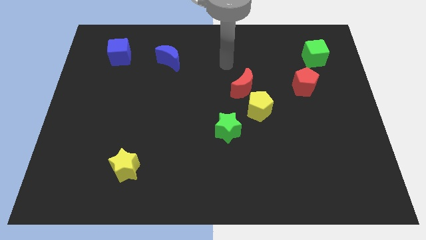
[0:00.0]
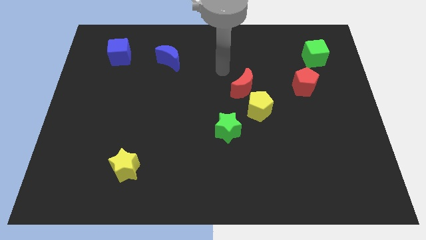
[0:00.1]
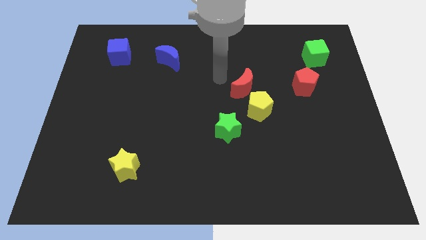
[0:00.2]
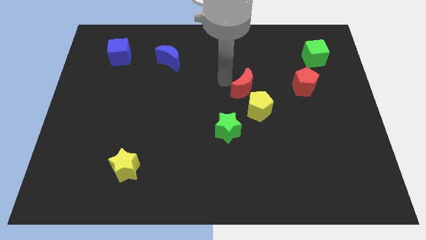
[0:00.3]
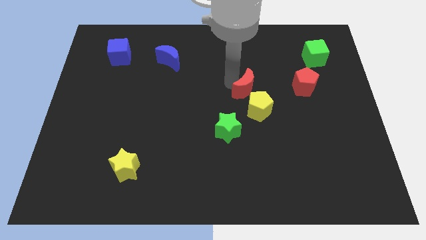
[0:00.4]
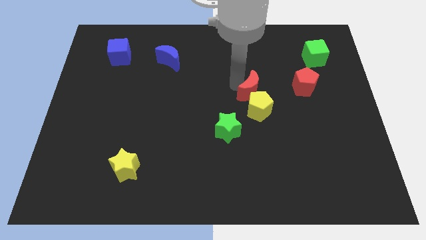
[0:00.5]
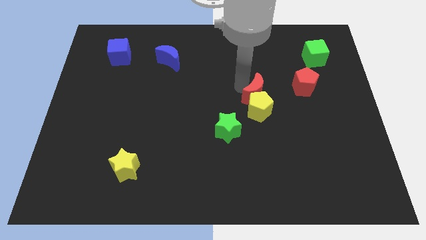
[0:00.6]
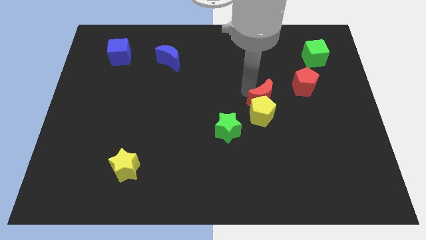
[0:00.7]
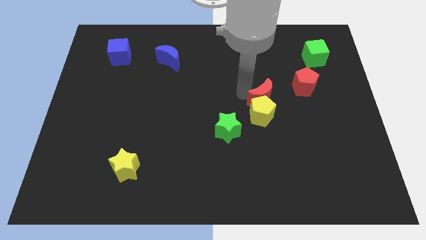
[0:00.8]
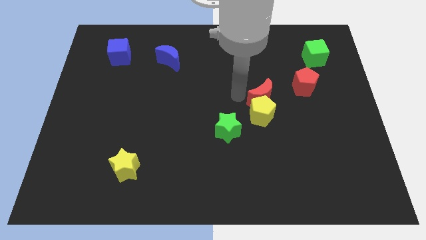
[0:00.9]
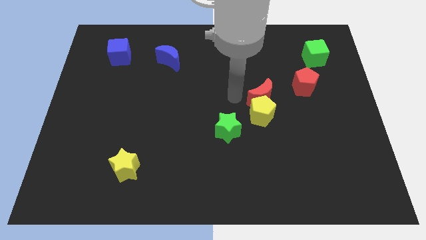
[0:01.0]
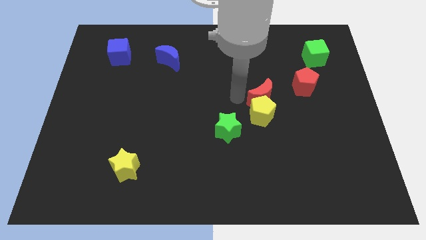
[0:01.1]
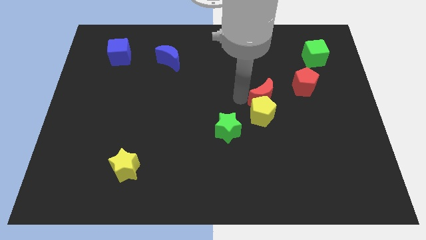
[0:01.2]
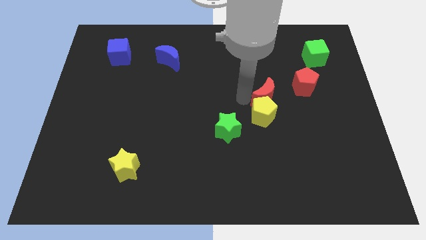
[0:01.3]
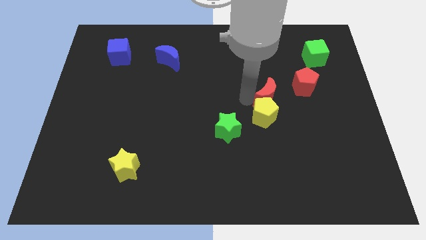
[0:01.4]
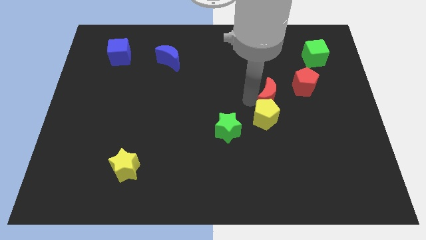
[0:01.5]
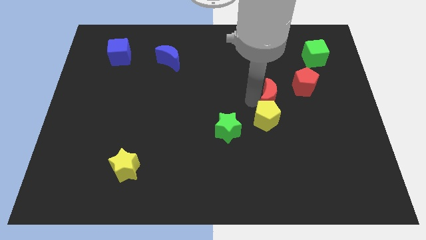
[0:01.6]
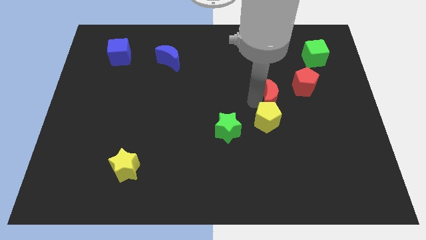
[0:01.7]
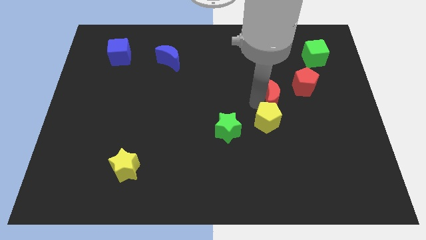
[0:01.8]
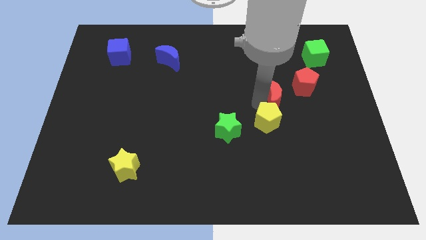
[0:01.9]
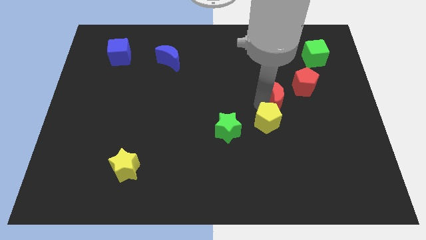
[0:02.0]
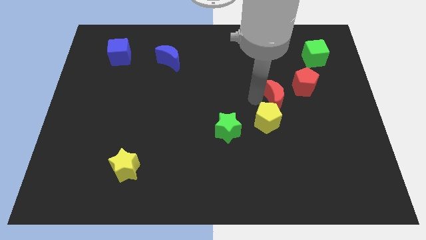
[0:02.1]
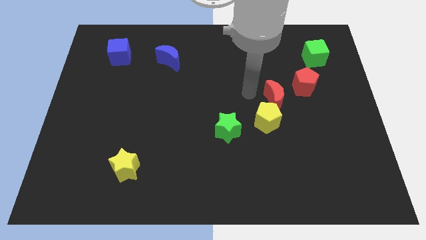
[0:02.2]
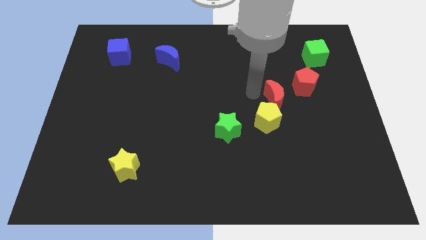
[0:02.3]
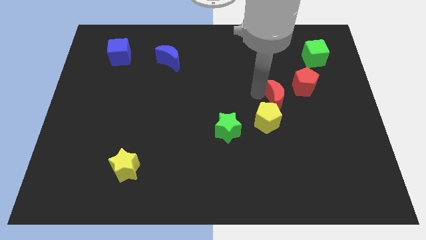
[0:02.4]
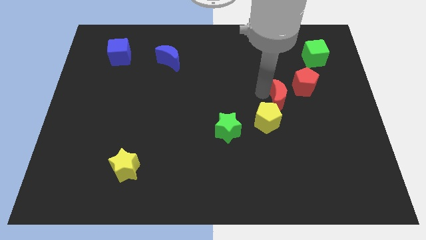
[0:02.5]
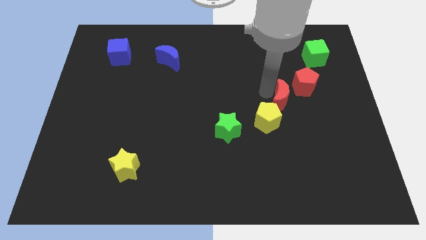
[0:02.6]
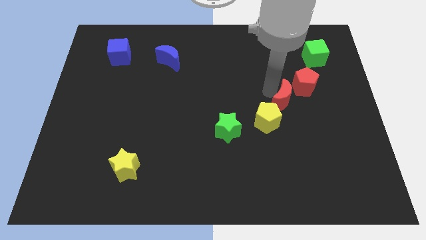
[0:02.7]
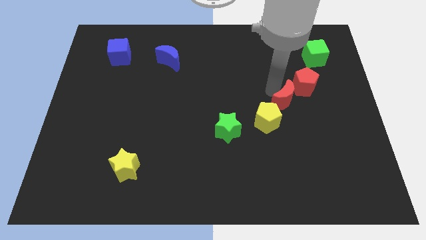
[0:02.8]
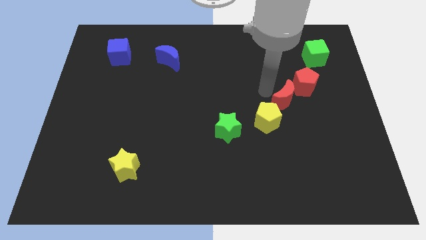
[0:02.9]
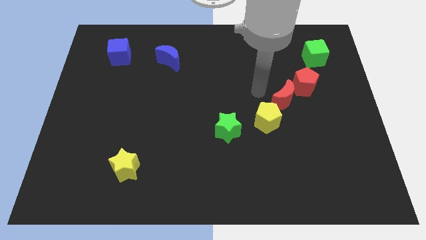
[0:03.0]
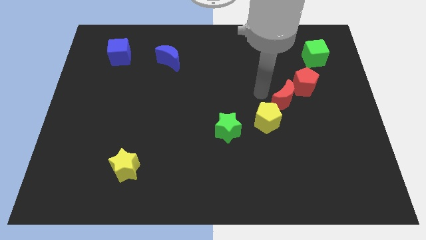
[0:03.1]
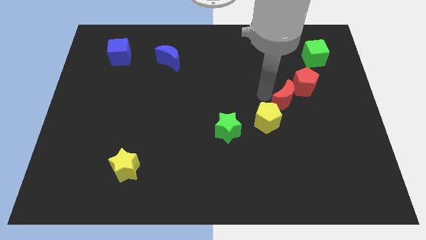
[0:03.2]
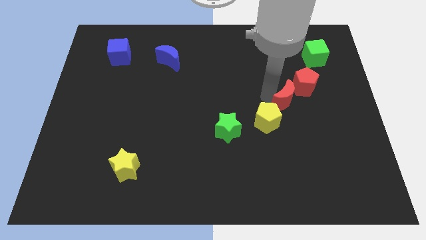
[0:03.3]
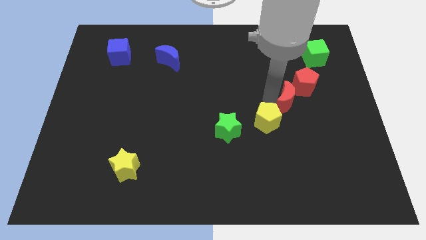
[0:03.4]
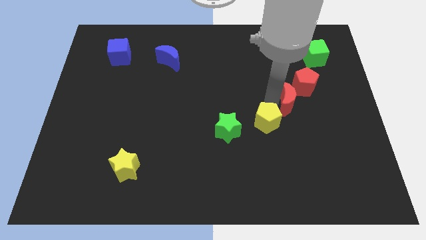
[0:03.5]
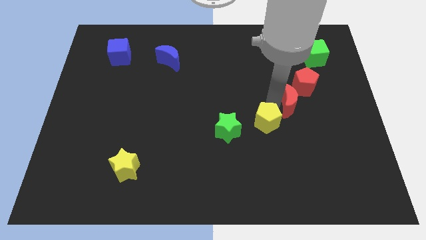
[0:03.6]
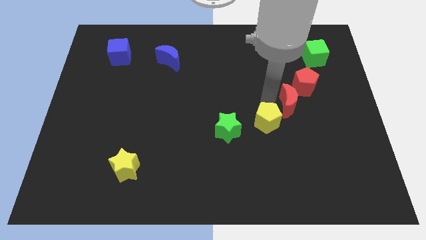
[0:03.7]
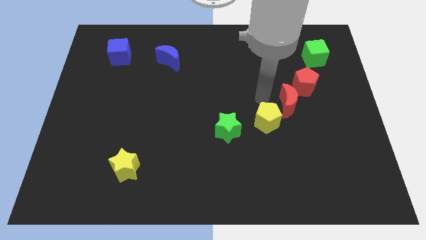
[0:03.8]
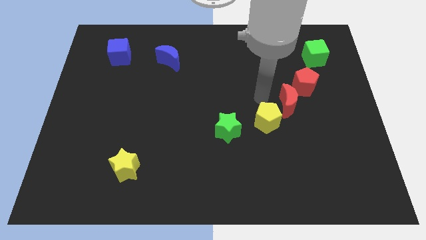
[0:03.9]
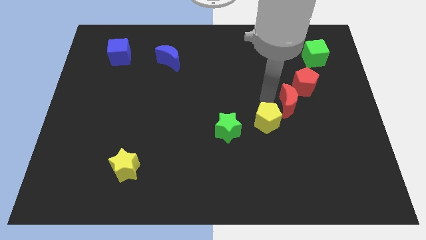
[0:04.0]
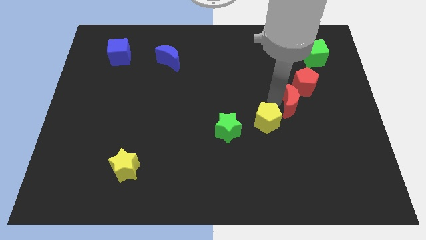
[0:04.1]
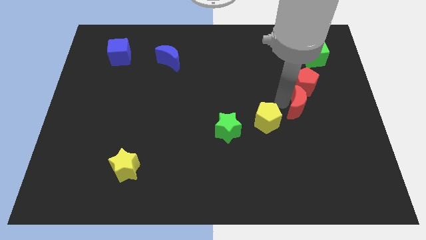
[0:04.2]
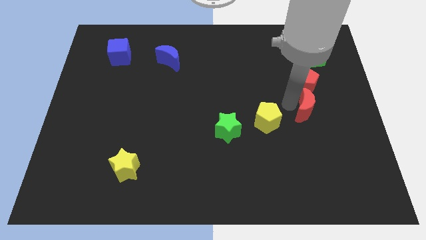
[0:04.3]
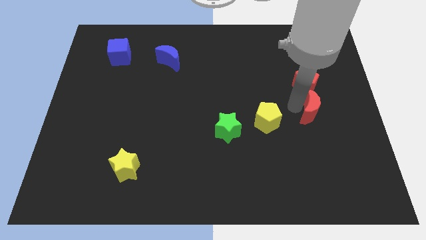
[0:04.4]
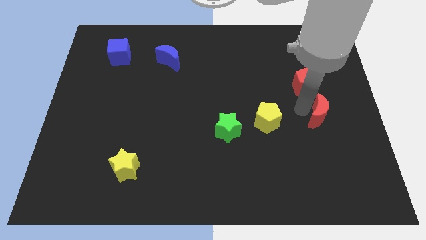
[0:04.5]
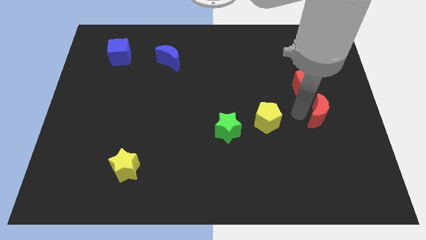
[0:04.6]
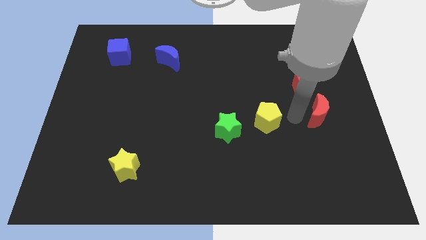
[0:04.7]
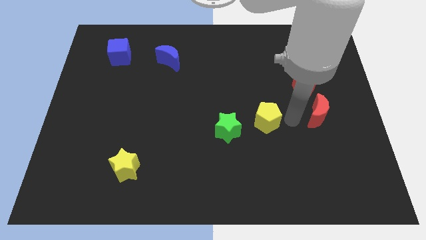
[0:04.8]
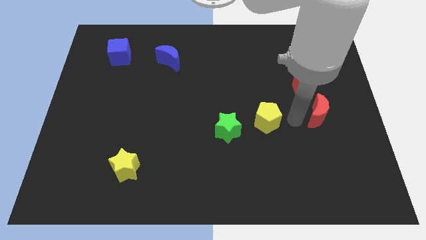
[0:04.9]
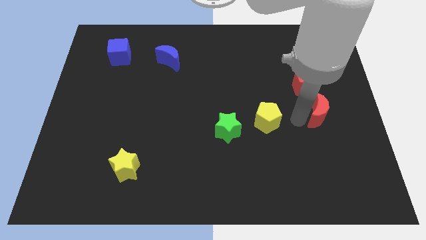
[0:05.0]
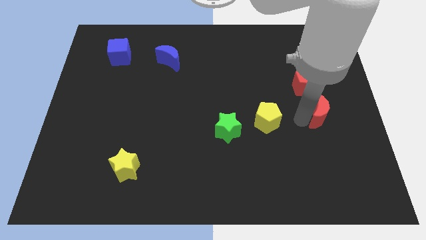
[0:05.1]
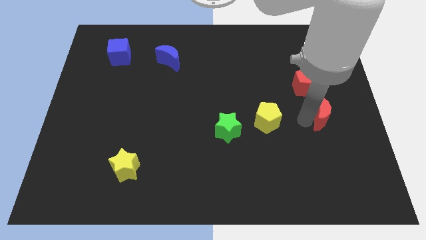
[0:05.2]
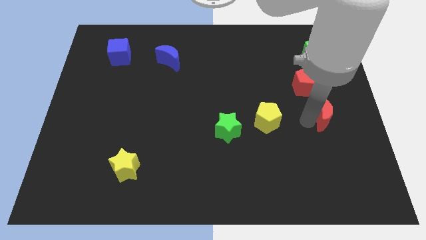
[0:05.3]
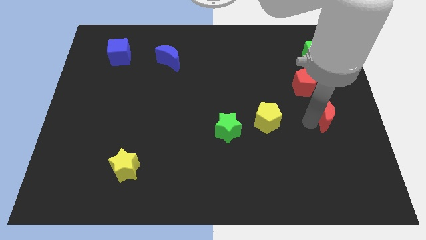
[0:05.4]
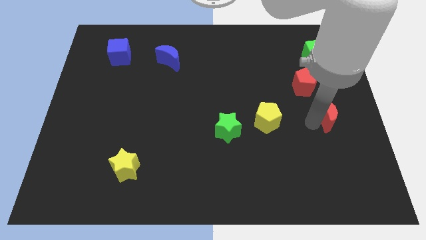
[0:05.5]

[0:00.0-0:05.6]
put the red moon to the right side of the board
